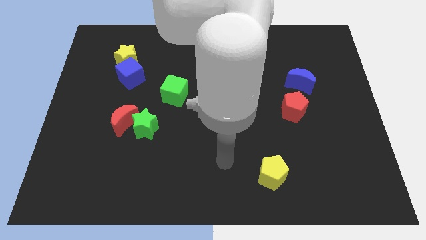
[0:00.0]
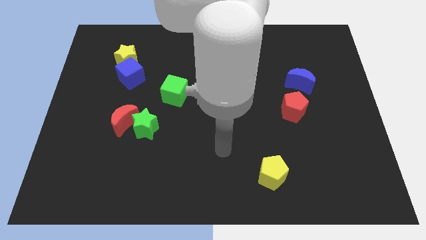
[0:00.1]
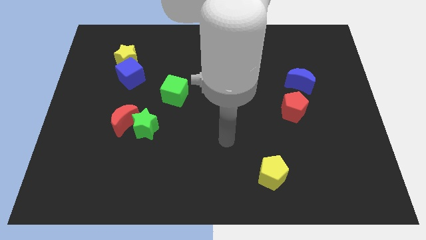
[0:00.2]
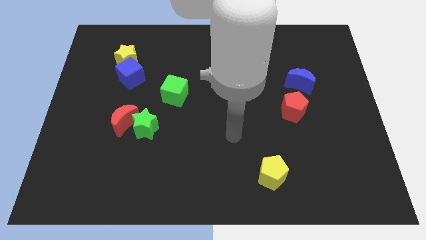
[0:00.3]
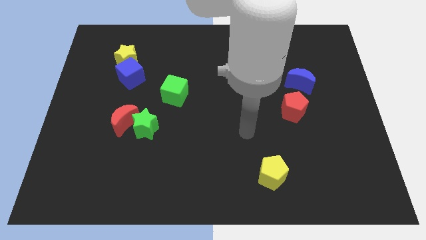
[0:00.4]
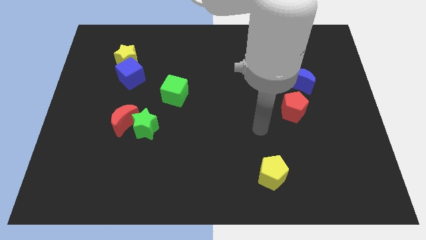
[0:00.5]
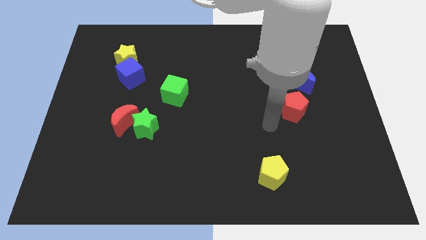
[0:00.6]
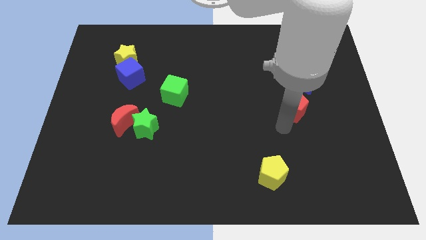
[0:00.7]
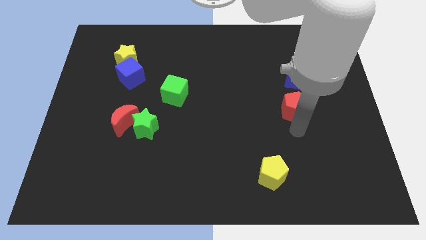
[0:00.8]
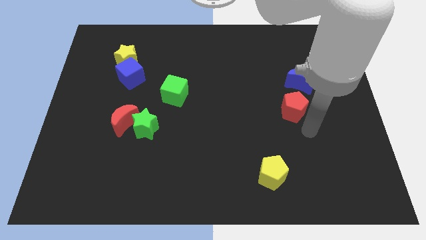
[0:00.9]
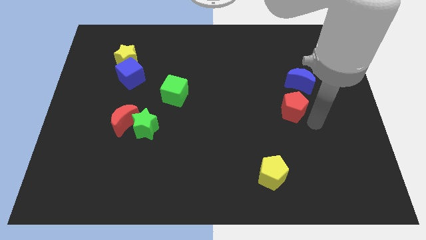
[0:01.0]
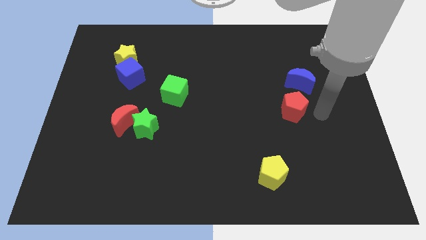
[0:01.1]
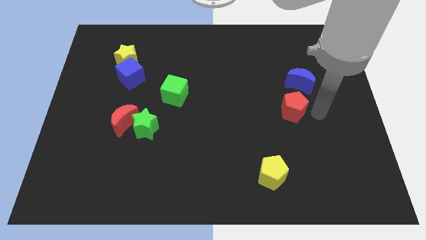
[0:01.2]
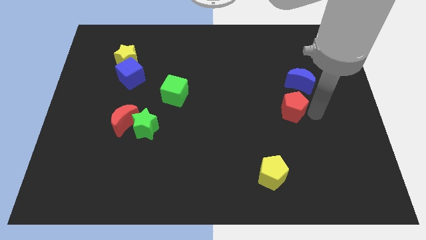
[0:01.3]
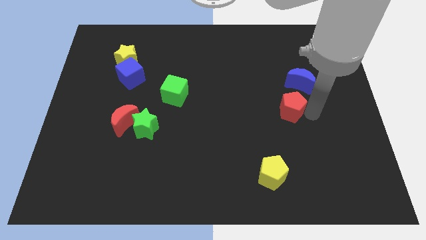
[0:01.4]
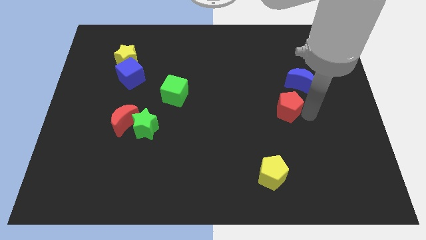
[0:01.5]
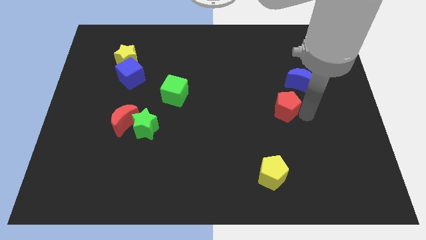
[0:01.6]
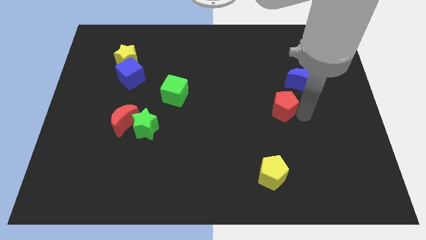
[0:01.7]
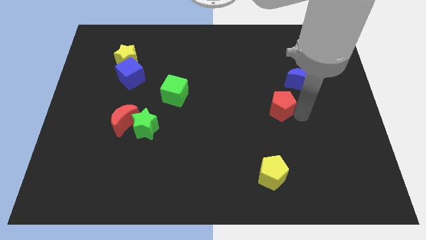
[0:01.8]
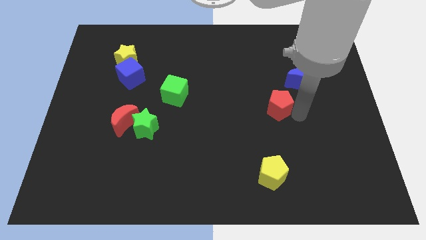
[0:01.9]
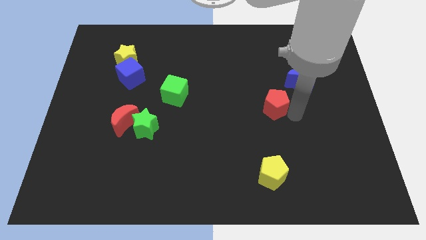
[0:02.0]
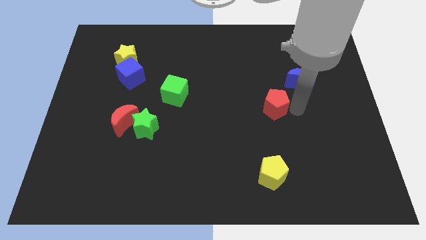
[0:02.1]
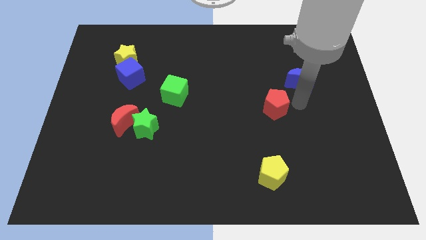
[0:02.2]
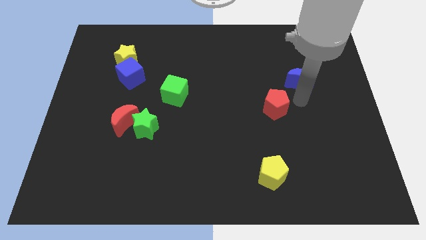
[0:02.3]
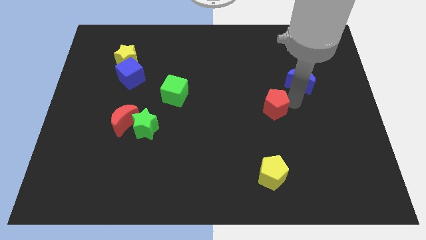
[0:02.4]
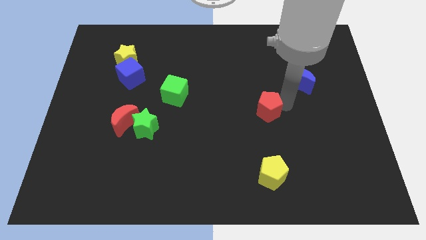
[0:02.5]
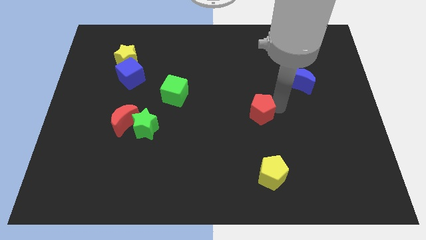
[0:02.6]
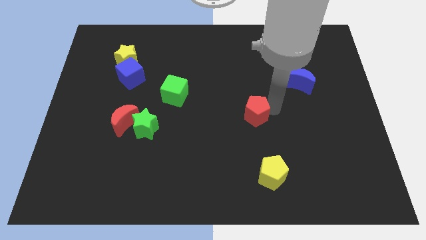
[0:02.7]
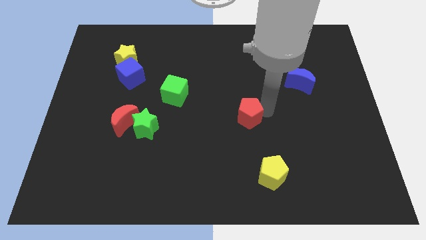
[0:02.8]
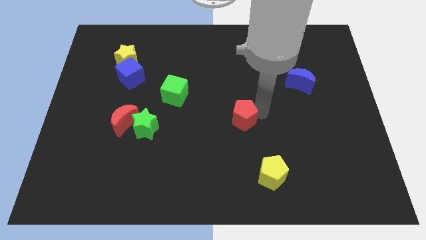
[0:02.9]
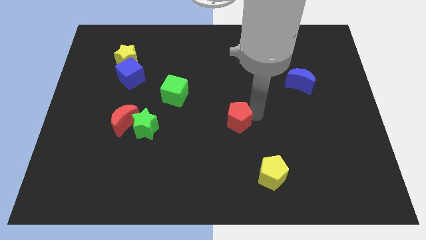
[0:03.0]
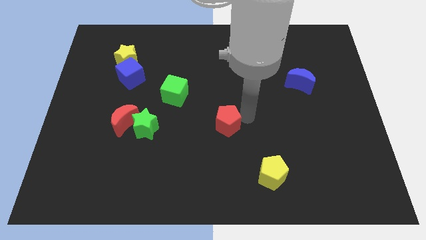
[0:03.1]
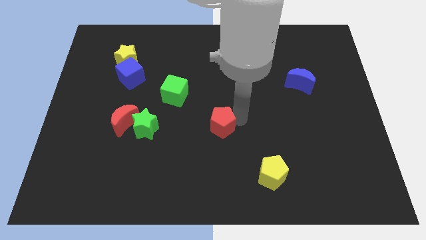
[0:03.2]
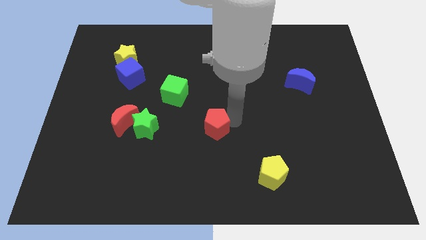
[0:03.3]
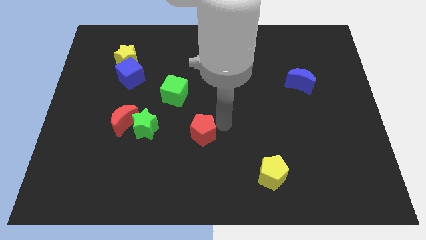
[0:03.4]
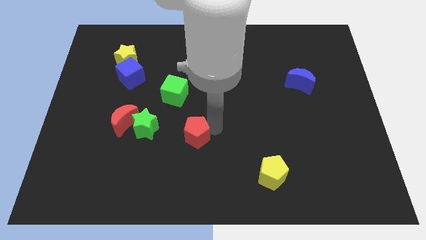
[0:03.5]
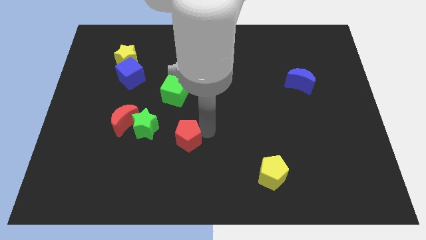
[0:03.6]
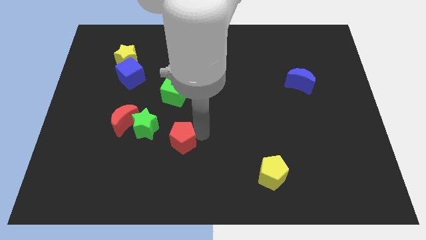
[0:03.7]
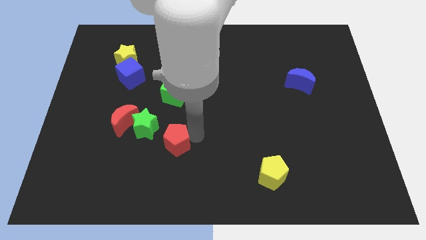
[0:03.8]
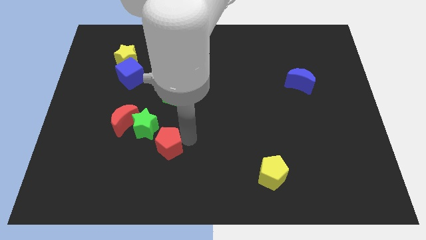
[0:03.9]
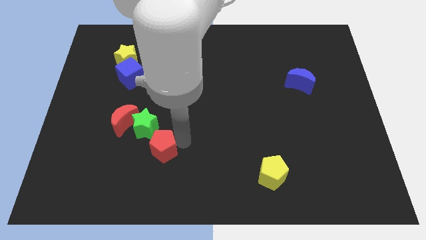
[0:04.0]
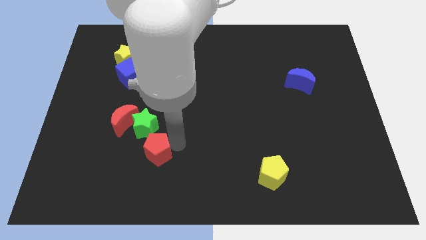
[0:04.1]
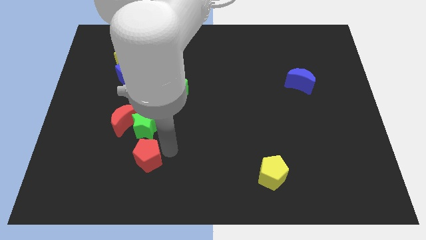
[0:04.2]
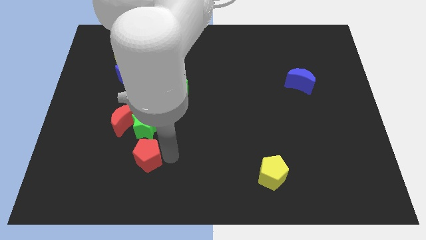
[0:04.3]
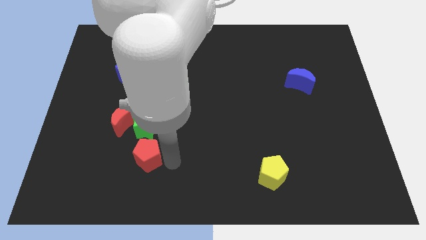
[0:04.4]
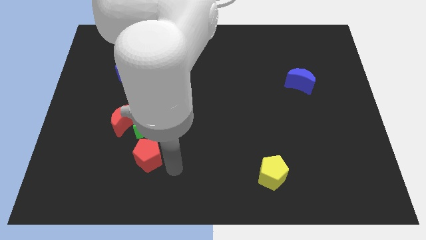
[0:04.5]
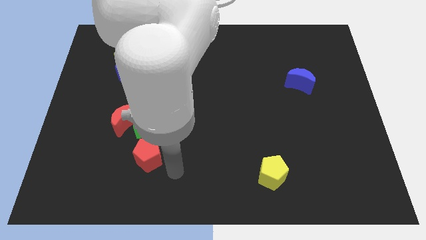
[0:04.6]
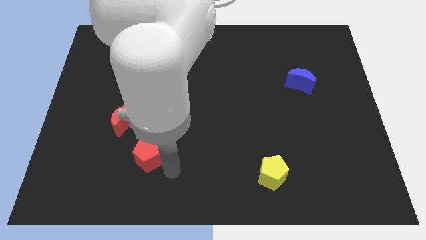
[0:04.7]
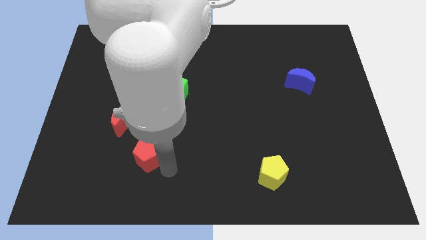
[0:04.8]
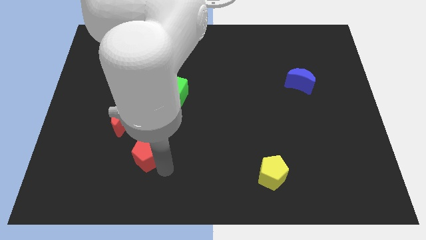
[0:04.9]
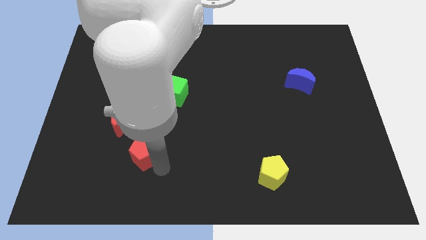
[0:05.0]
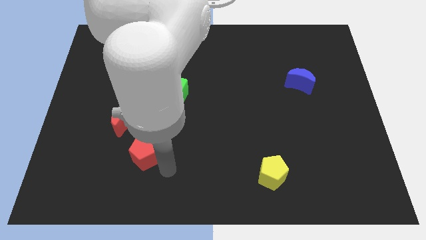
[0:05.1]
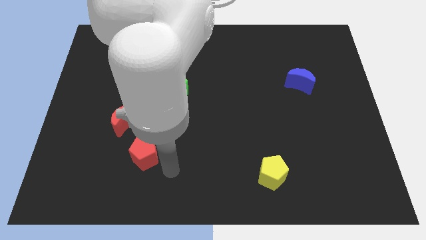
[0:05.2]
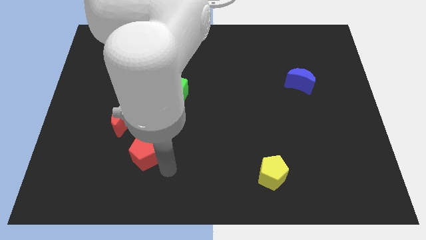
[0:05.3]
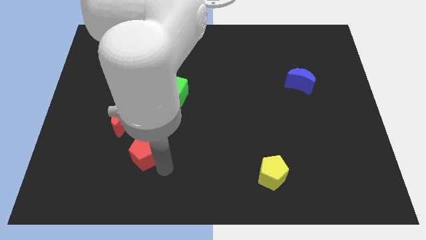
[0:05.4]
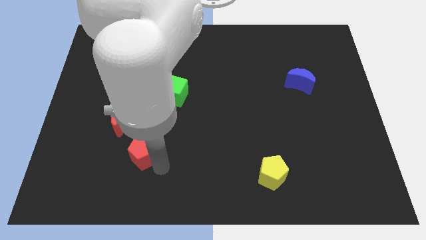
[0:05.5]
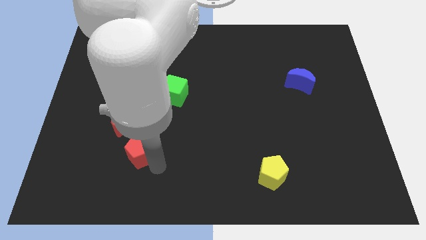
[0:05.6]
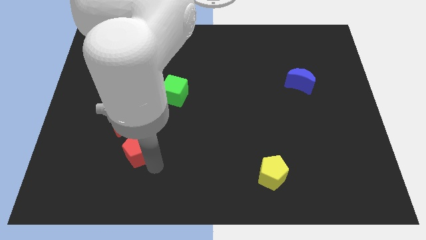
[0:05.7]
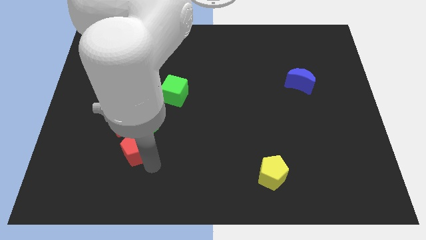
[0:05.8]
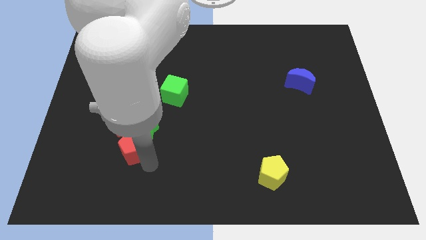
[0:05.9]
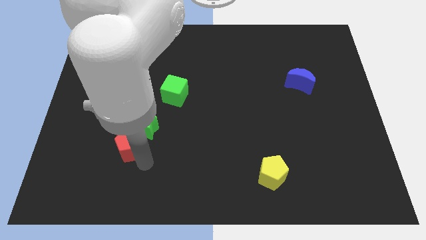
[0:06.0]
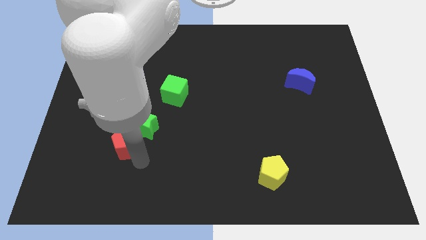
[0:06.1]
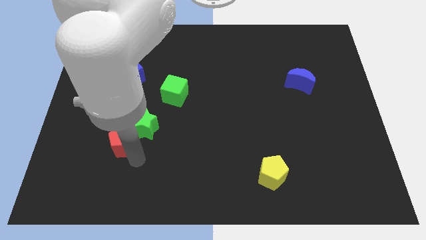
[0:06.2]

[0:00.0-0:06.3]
move the red pentagon just left of the green star
